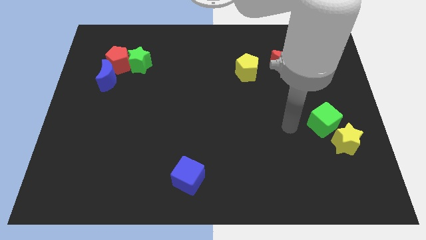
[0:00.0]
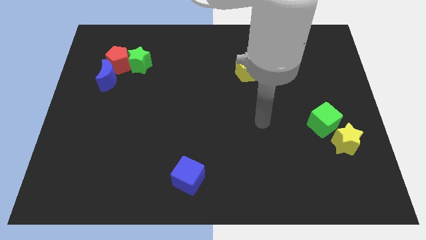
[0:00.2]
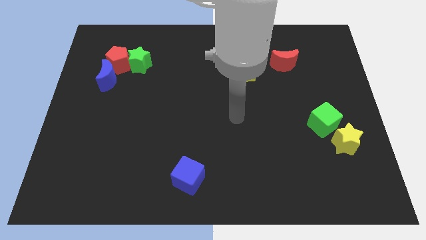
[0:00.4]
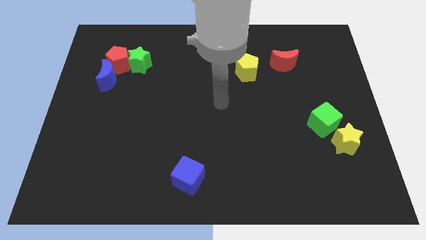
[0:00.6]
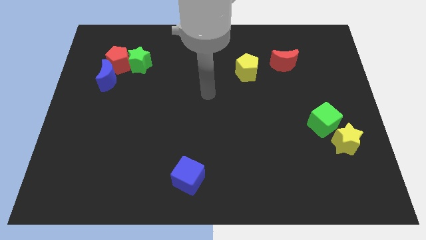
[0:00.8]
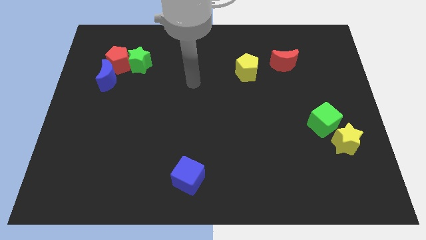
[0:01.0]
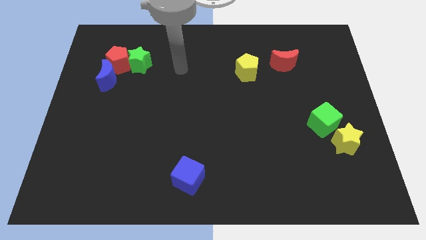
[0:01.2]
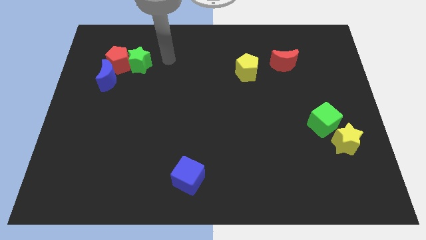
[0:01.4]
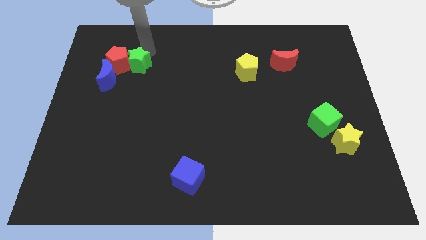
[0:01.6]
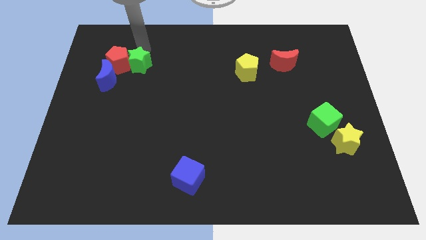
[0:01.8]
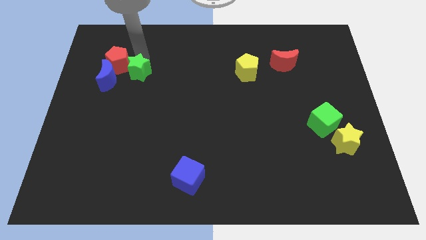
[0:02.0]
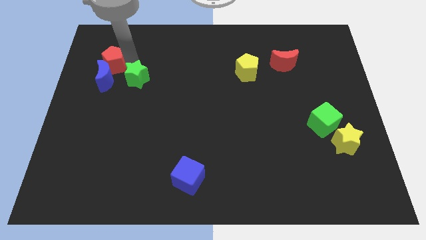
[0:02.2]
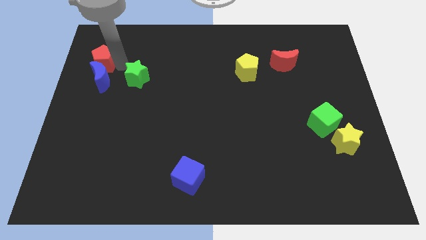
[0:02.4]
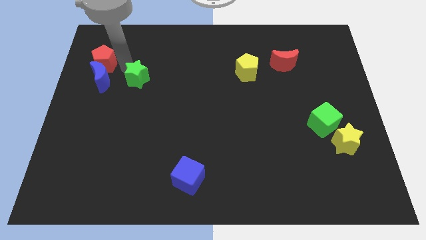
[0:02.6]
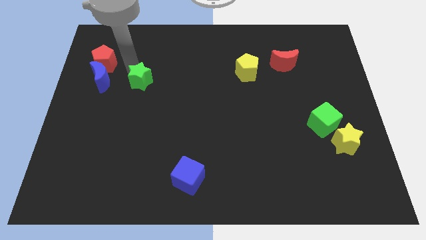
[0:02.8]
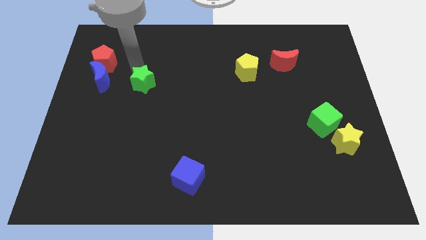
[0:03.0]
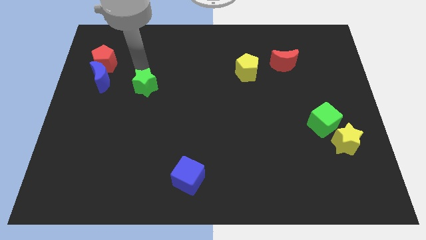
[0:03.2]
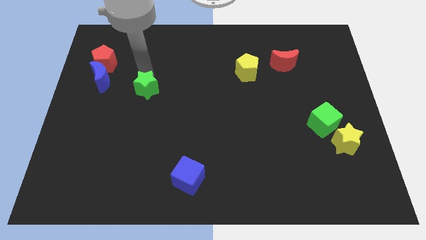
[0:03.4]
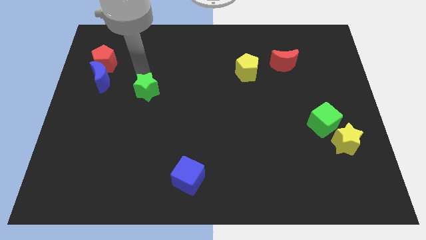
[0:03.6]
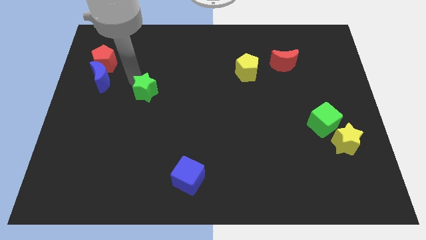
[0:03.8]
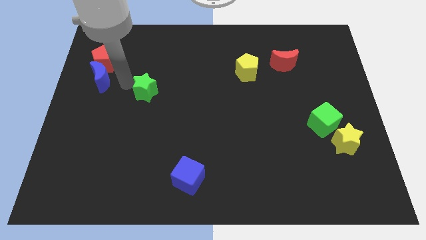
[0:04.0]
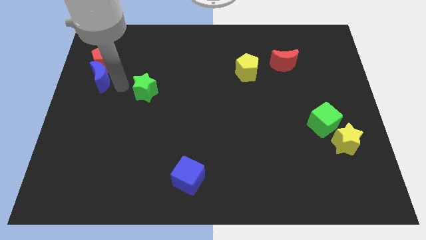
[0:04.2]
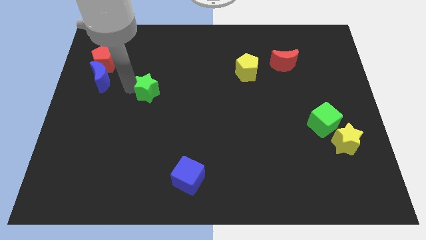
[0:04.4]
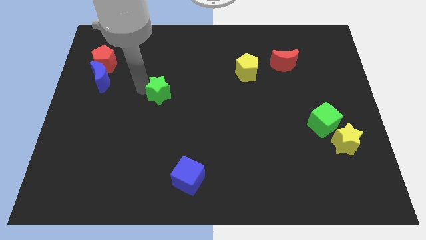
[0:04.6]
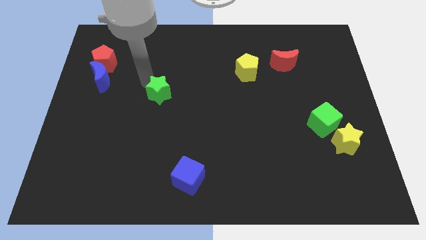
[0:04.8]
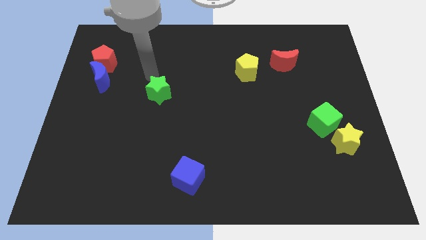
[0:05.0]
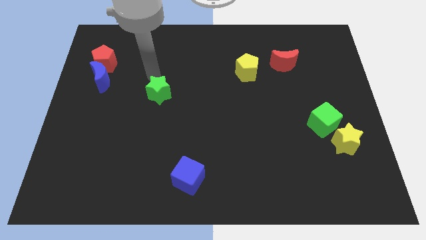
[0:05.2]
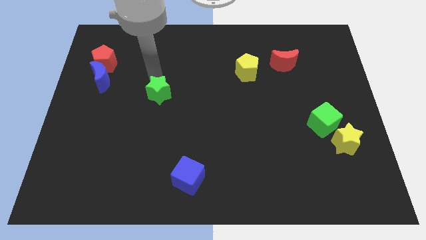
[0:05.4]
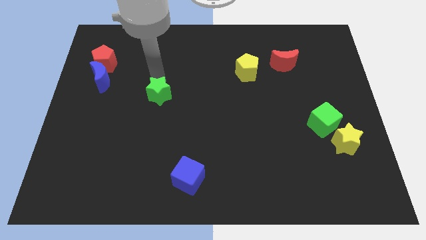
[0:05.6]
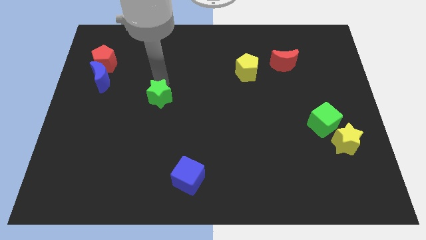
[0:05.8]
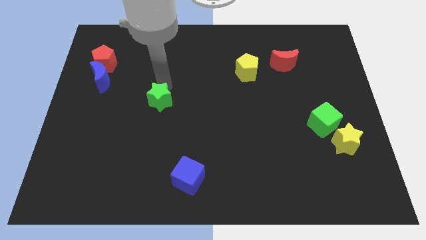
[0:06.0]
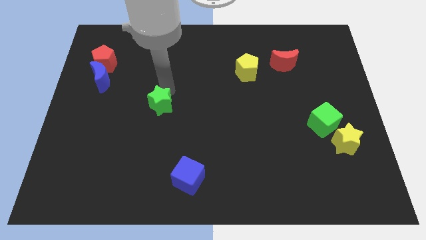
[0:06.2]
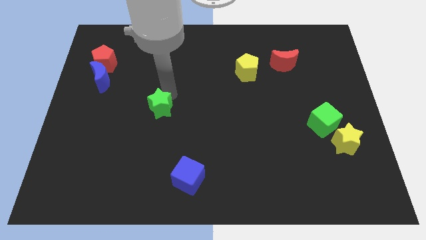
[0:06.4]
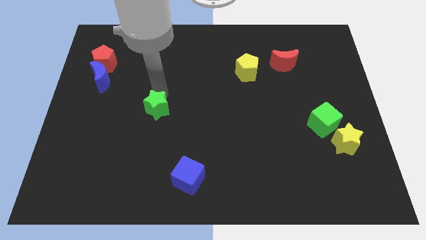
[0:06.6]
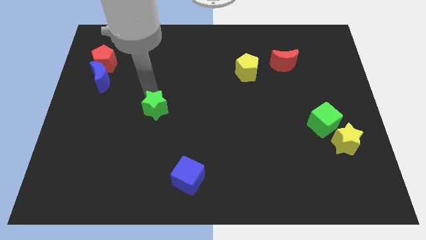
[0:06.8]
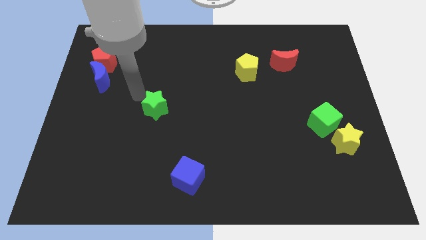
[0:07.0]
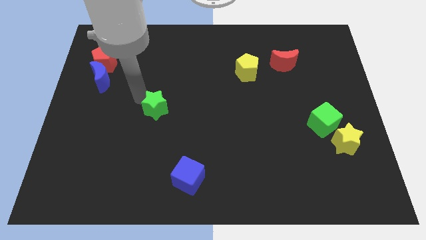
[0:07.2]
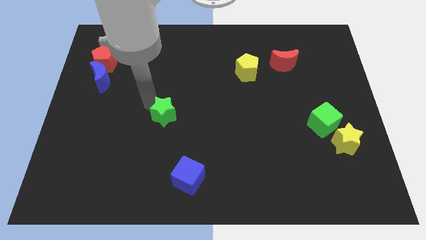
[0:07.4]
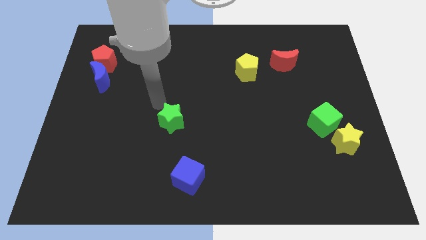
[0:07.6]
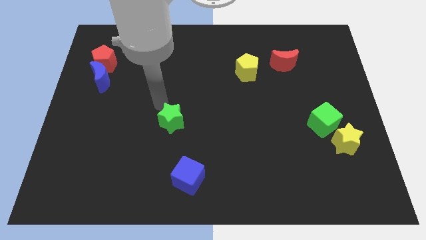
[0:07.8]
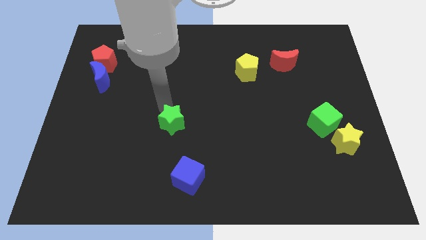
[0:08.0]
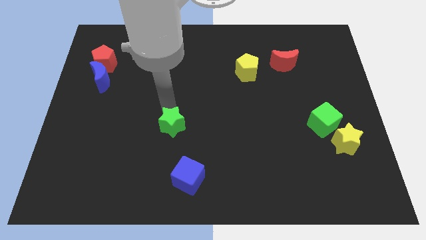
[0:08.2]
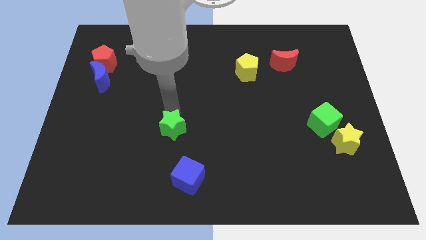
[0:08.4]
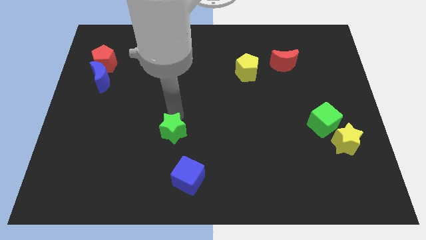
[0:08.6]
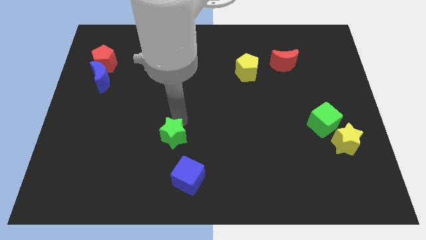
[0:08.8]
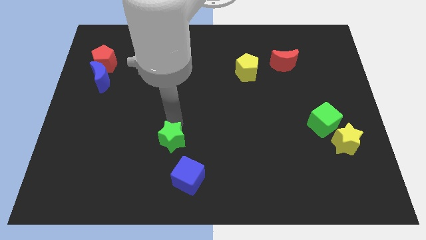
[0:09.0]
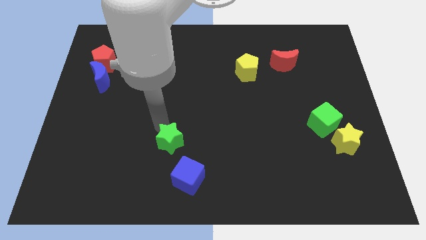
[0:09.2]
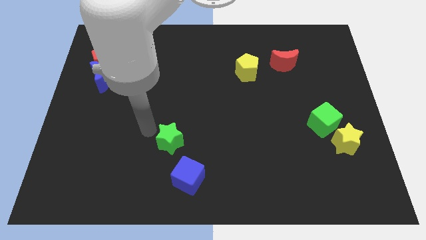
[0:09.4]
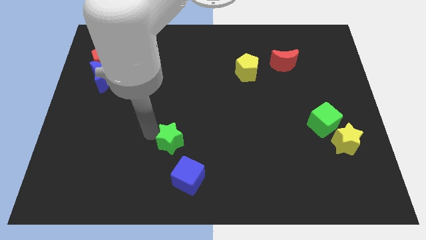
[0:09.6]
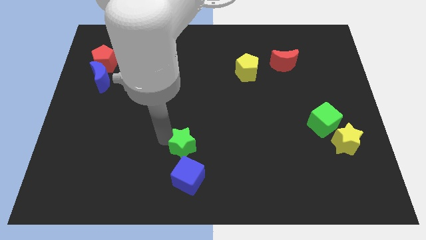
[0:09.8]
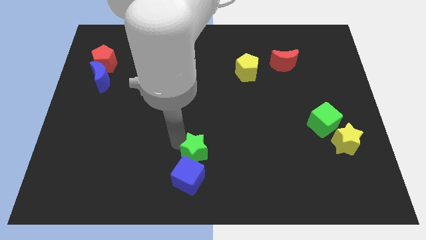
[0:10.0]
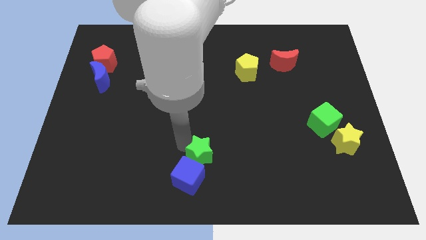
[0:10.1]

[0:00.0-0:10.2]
push the green star to the bottom side
